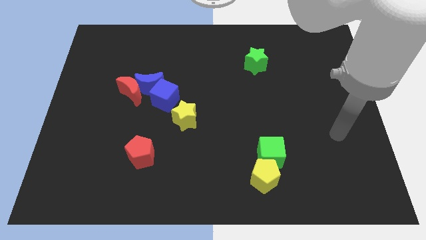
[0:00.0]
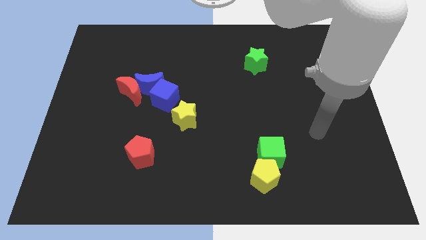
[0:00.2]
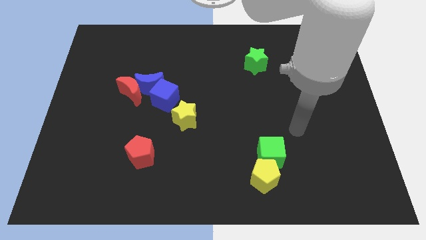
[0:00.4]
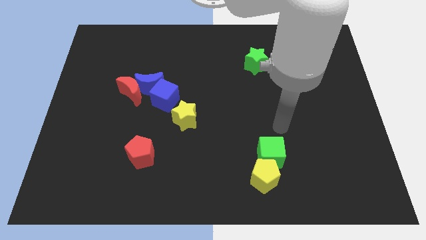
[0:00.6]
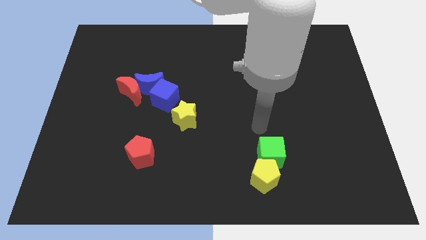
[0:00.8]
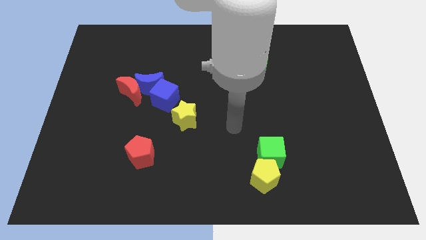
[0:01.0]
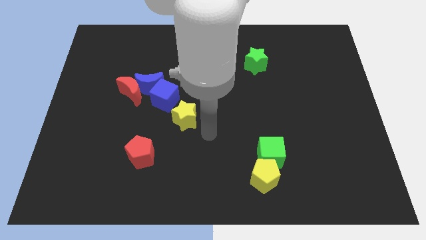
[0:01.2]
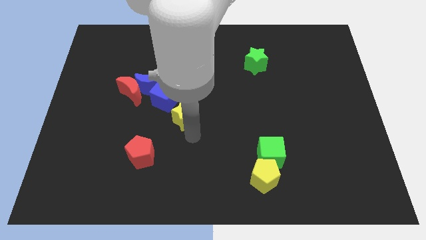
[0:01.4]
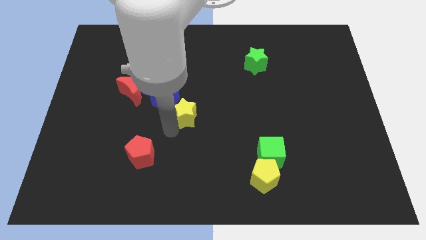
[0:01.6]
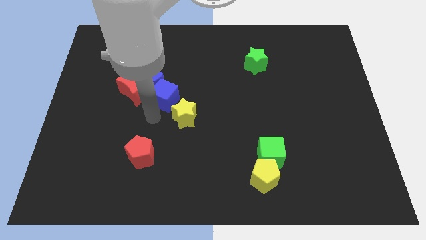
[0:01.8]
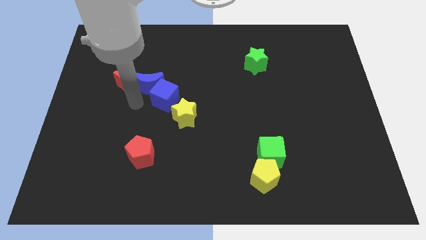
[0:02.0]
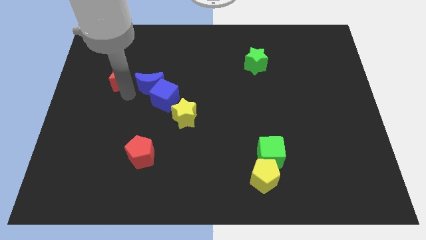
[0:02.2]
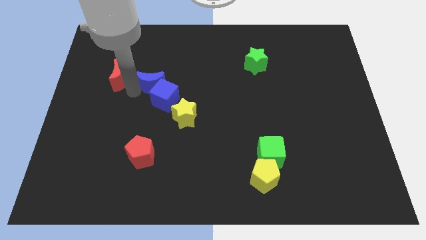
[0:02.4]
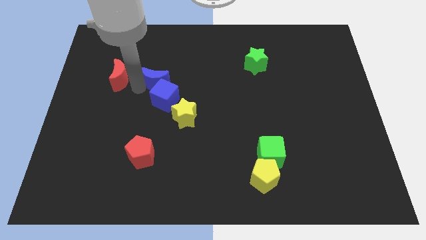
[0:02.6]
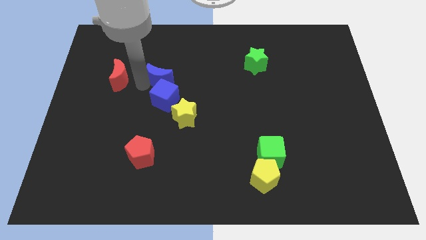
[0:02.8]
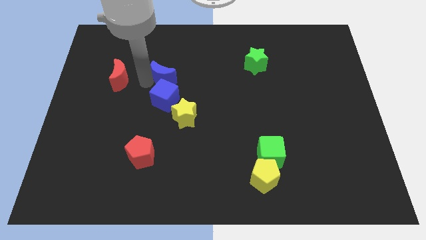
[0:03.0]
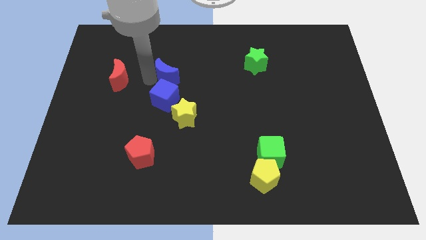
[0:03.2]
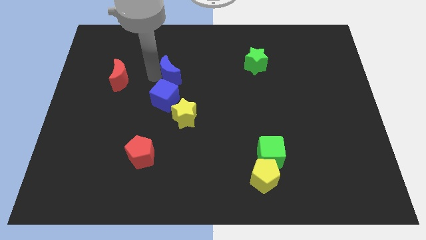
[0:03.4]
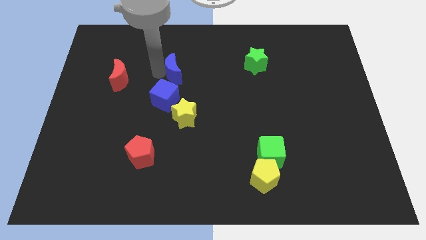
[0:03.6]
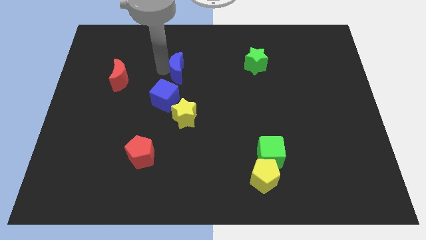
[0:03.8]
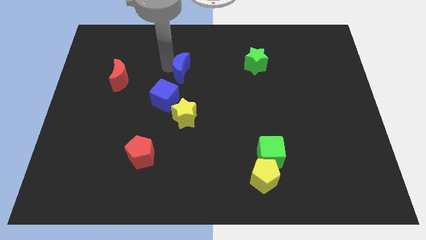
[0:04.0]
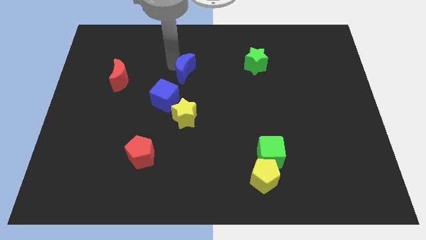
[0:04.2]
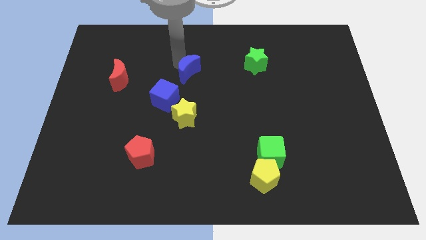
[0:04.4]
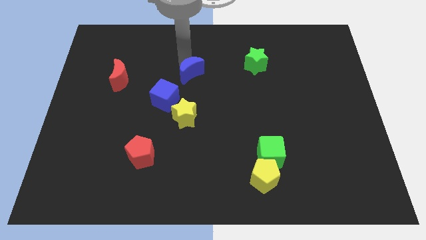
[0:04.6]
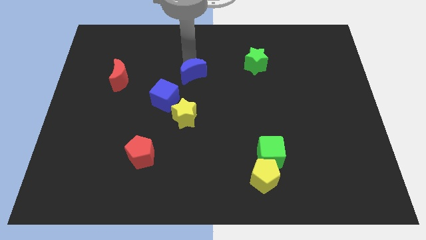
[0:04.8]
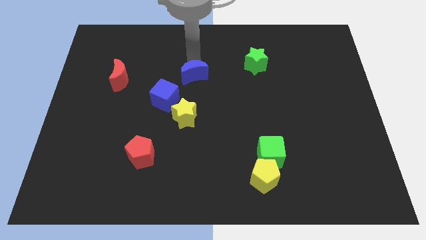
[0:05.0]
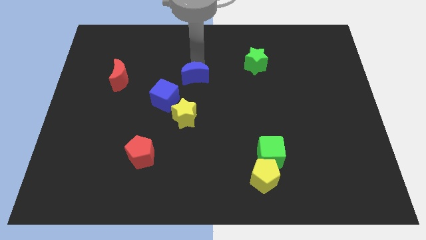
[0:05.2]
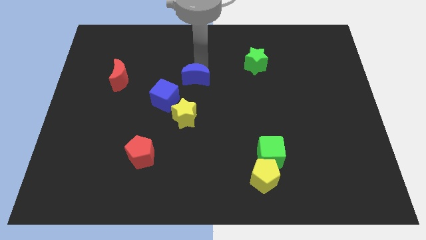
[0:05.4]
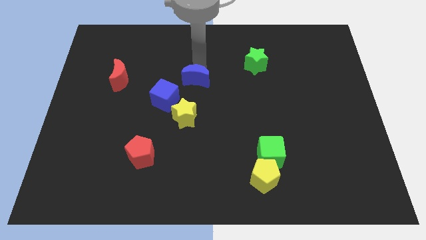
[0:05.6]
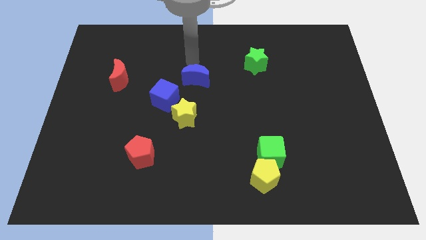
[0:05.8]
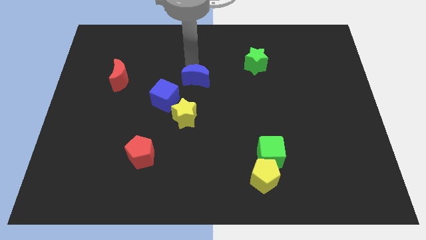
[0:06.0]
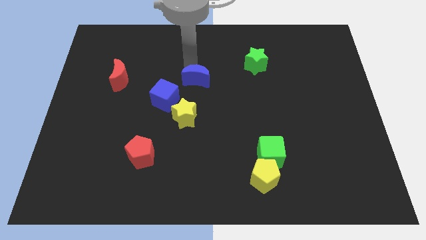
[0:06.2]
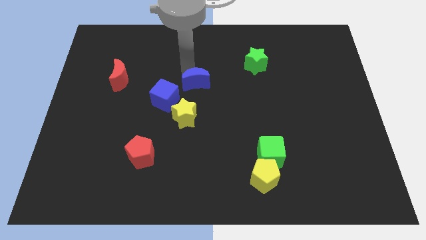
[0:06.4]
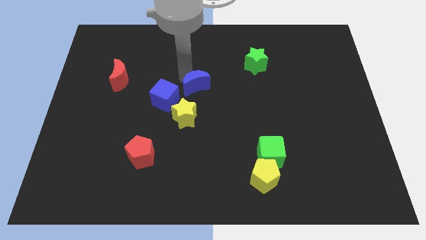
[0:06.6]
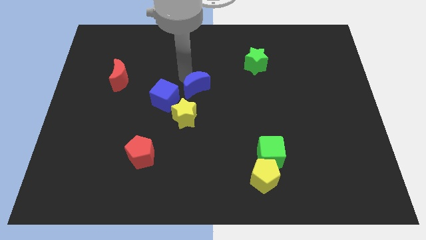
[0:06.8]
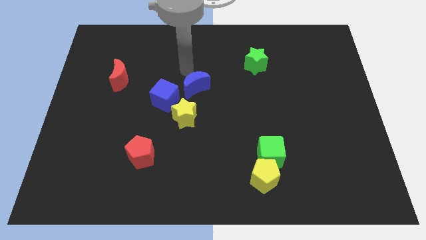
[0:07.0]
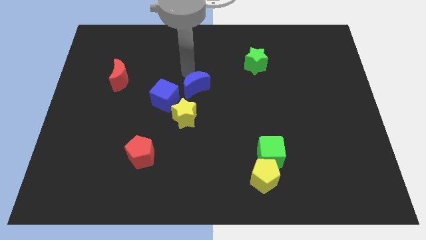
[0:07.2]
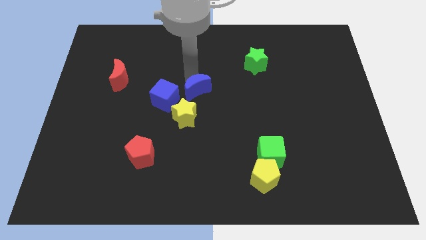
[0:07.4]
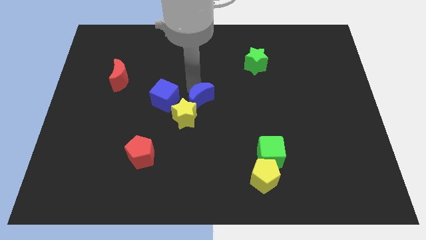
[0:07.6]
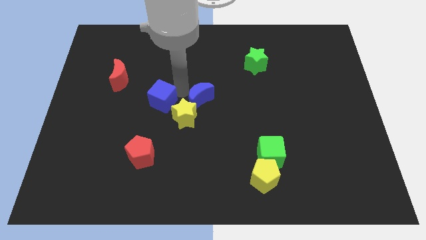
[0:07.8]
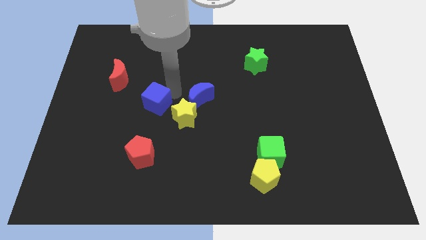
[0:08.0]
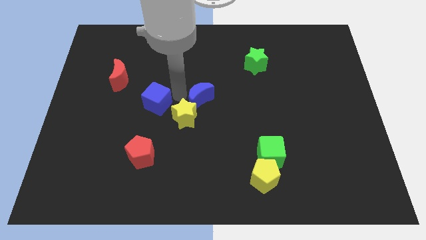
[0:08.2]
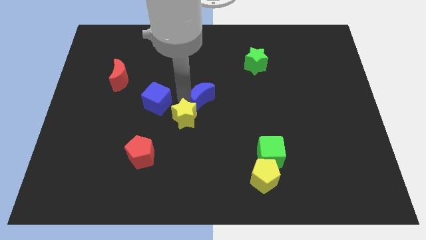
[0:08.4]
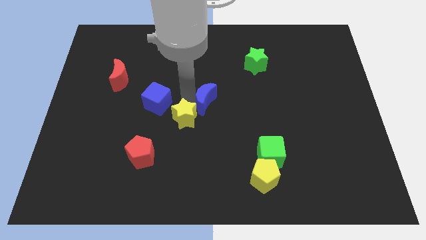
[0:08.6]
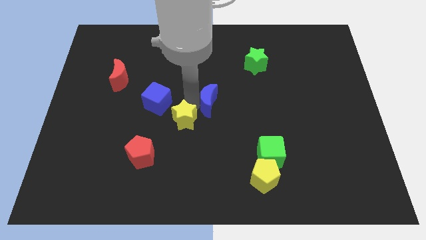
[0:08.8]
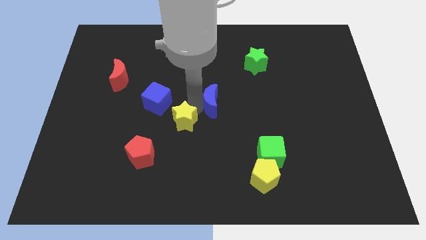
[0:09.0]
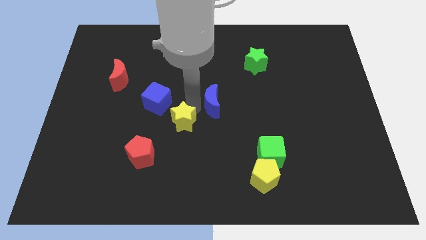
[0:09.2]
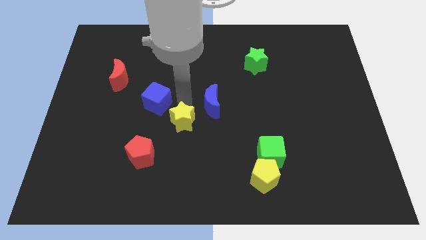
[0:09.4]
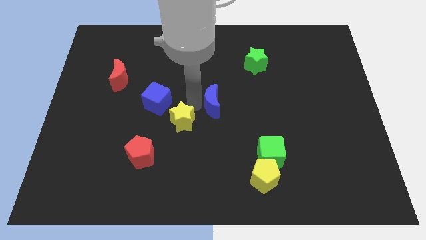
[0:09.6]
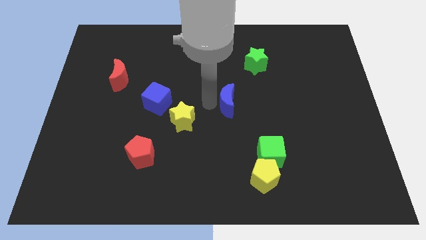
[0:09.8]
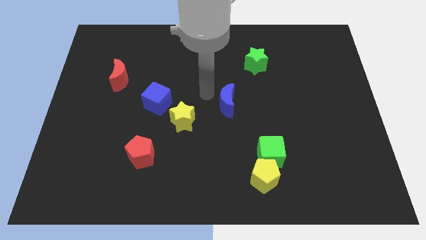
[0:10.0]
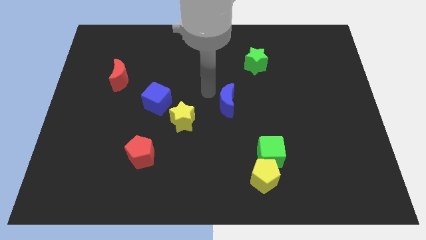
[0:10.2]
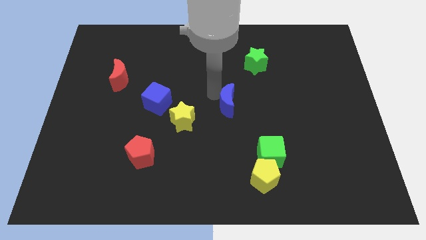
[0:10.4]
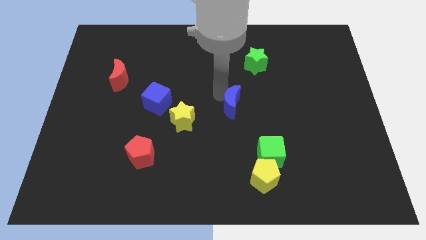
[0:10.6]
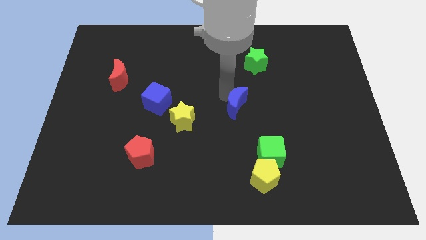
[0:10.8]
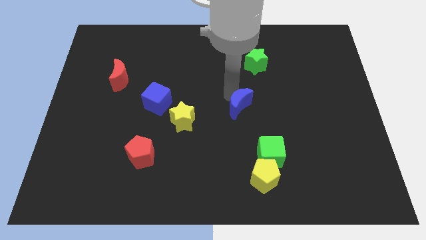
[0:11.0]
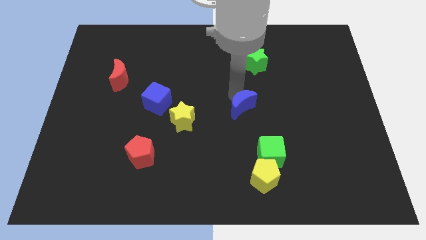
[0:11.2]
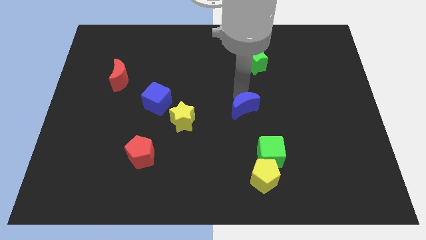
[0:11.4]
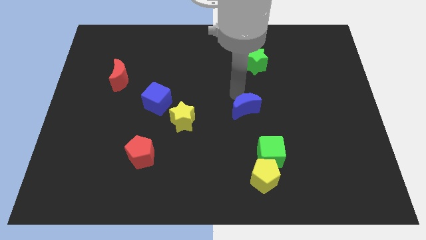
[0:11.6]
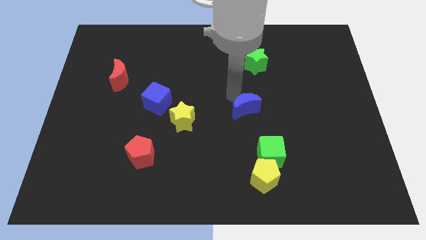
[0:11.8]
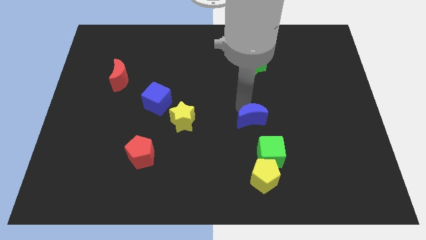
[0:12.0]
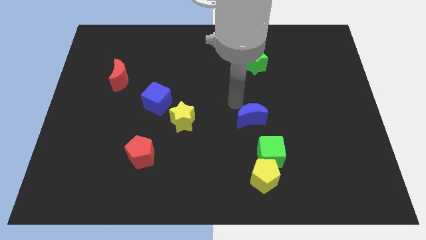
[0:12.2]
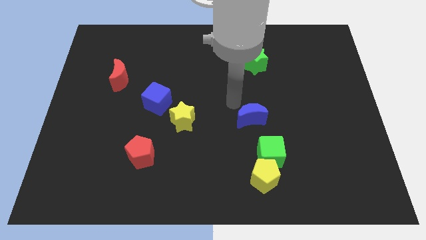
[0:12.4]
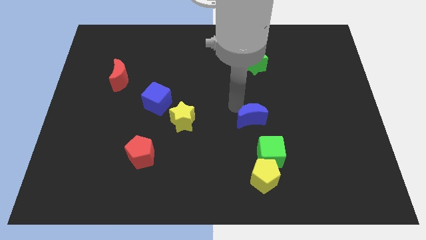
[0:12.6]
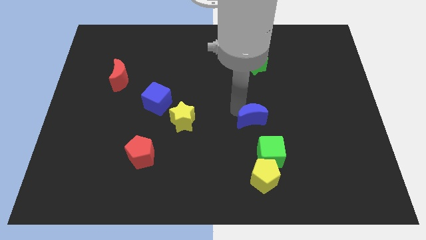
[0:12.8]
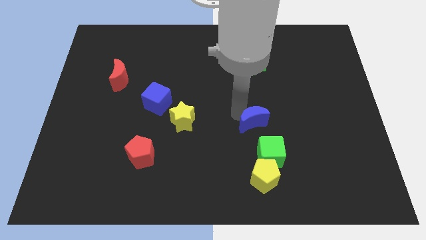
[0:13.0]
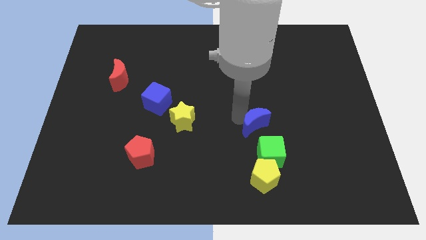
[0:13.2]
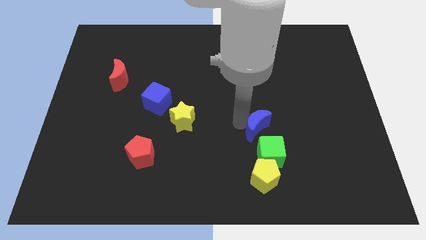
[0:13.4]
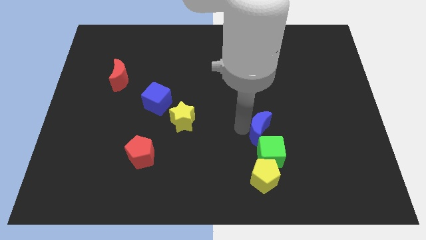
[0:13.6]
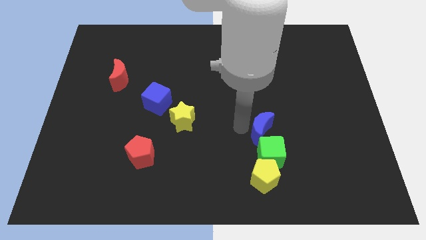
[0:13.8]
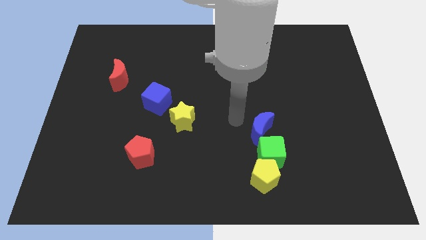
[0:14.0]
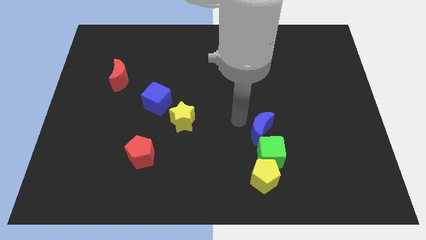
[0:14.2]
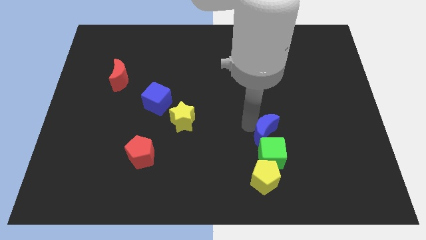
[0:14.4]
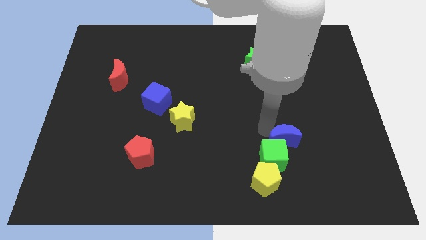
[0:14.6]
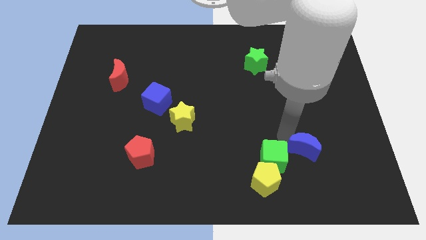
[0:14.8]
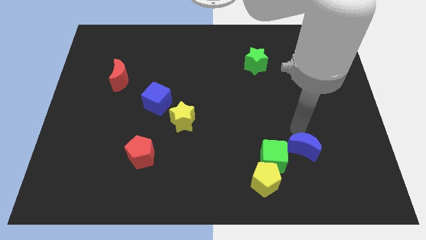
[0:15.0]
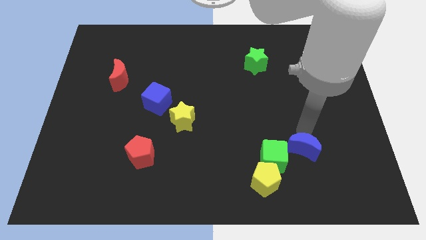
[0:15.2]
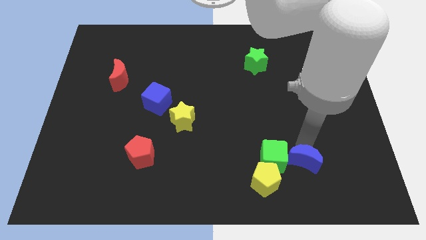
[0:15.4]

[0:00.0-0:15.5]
move the blue moon diagonally down and to the right of the green cube
